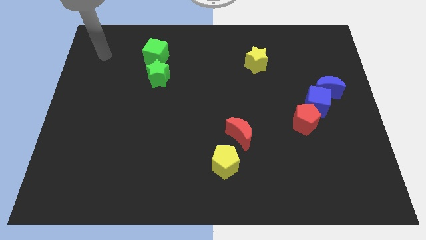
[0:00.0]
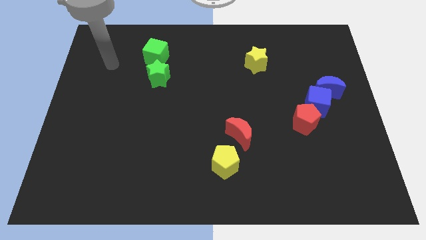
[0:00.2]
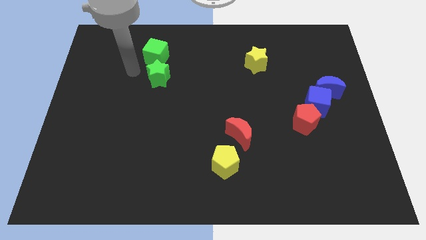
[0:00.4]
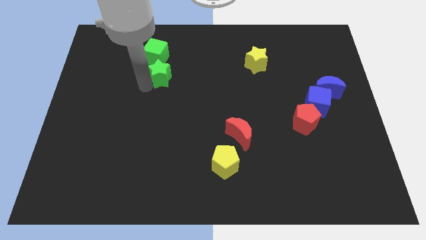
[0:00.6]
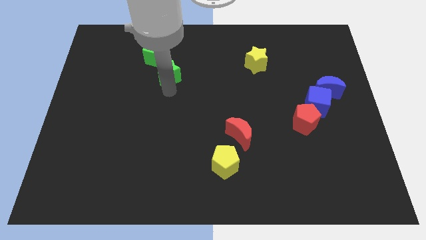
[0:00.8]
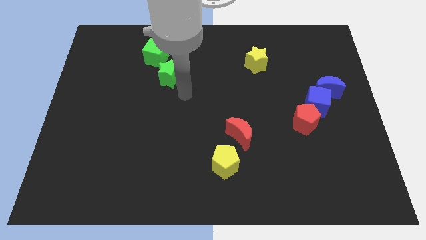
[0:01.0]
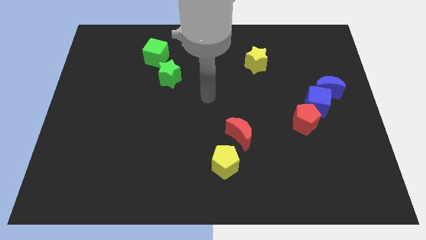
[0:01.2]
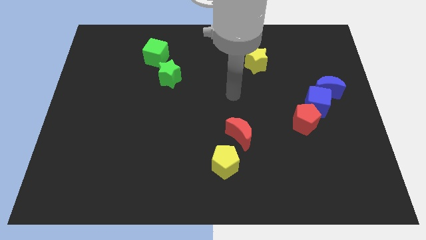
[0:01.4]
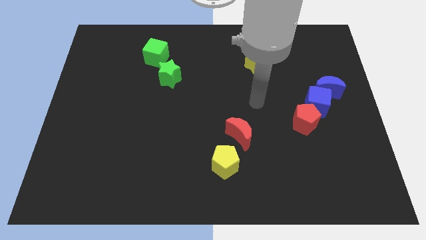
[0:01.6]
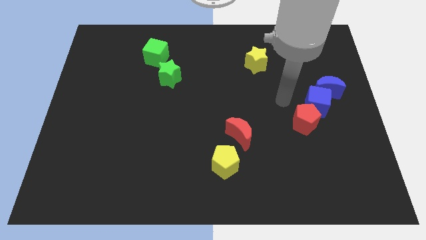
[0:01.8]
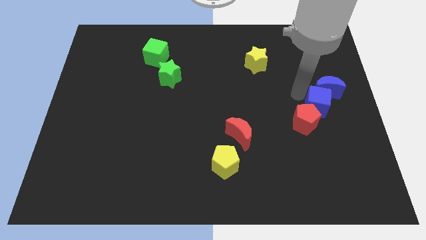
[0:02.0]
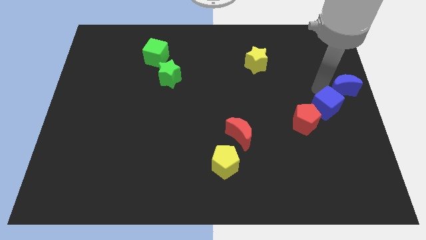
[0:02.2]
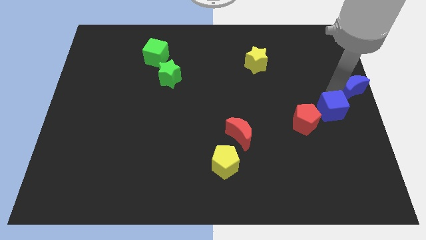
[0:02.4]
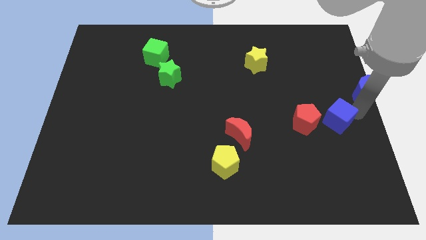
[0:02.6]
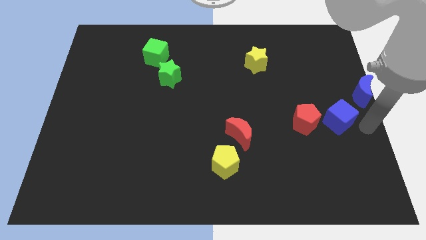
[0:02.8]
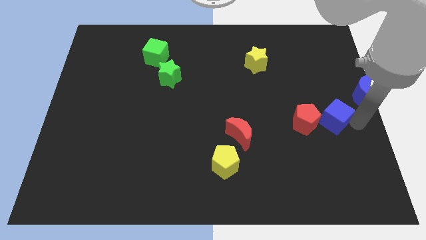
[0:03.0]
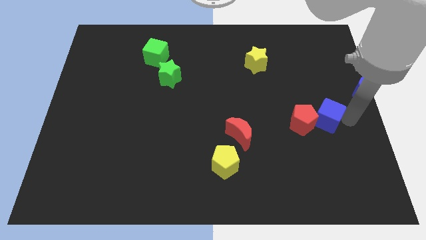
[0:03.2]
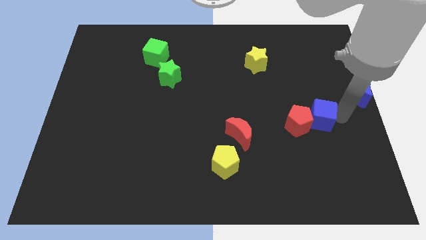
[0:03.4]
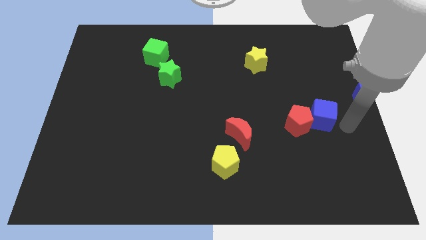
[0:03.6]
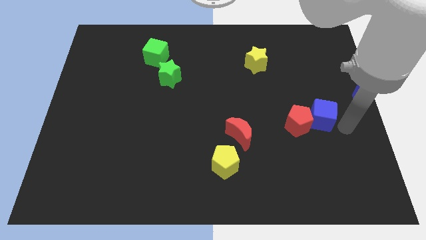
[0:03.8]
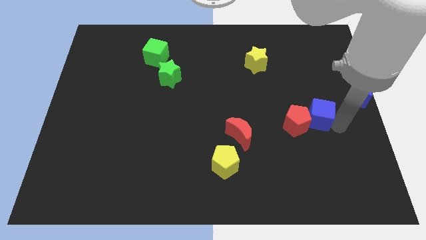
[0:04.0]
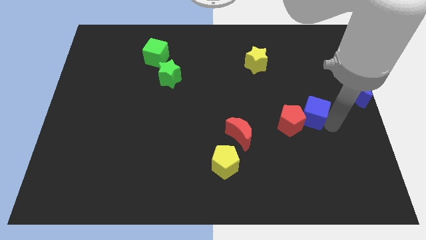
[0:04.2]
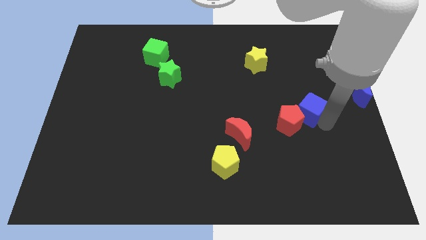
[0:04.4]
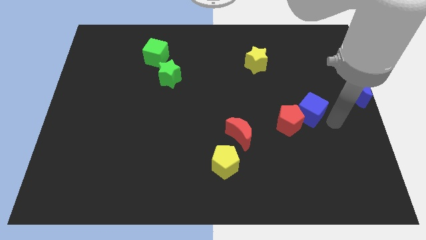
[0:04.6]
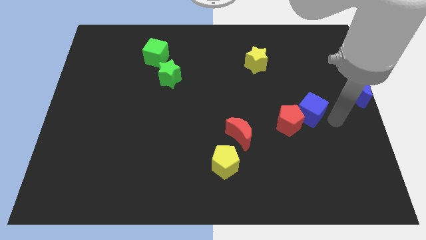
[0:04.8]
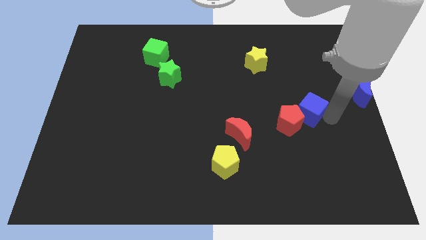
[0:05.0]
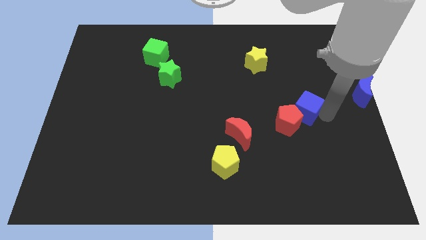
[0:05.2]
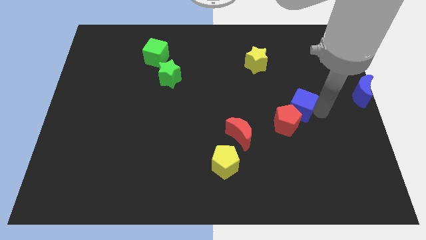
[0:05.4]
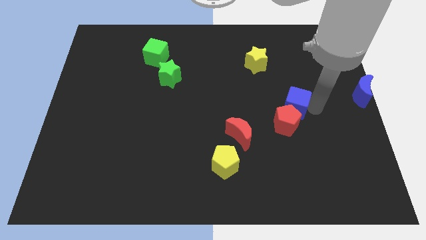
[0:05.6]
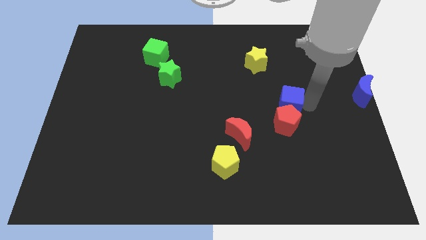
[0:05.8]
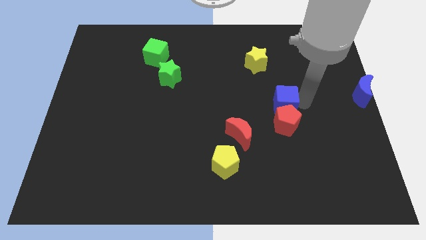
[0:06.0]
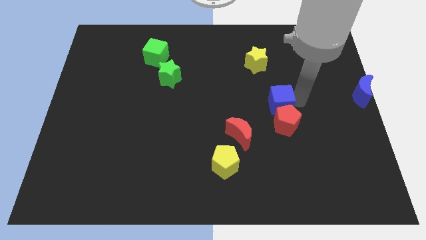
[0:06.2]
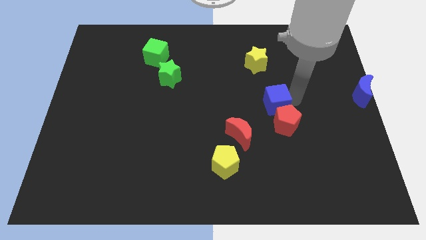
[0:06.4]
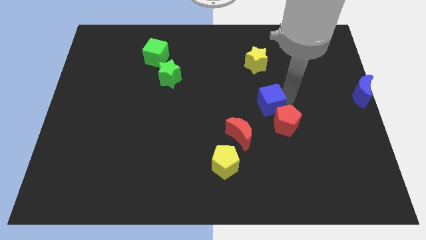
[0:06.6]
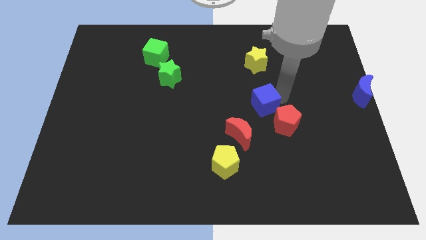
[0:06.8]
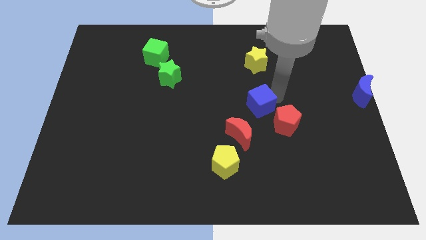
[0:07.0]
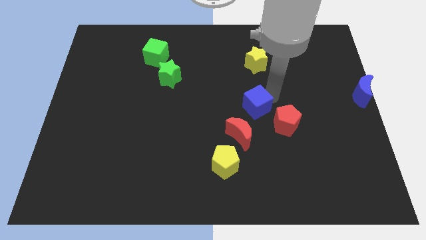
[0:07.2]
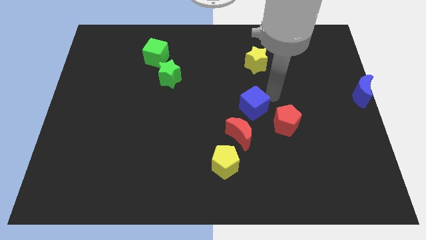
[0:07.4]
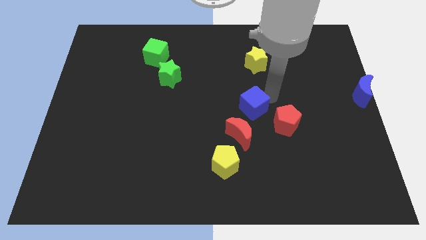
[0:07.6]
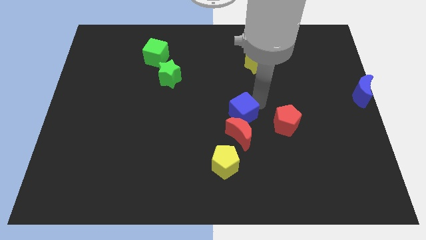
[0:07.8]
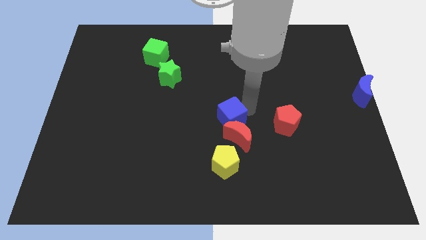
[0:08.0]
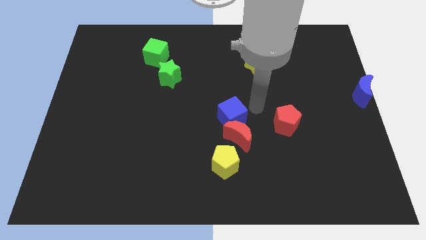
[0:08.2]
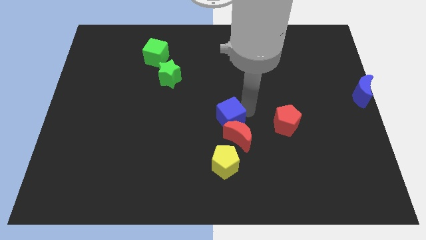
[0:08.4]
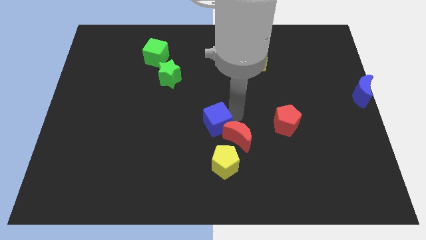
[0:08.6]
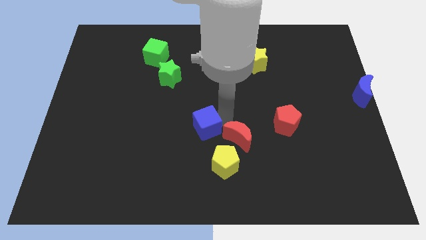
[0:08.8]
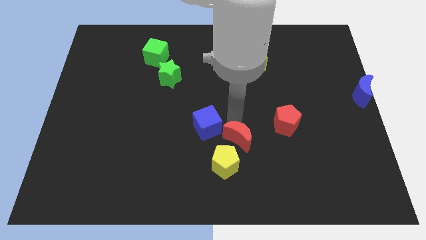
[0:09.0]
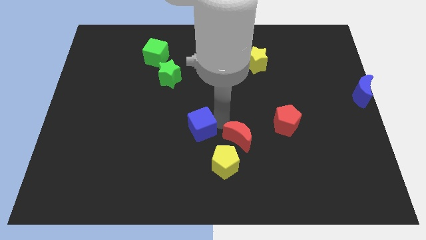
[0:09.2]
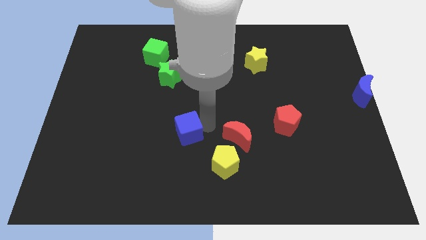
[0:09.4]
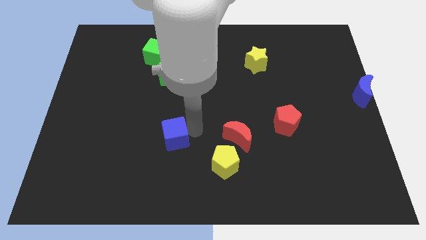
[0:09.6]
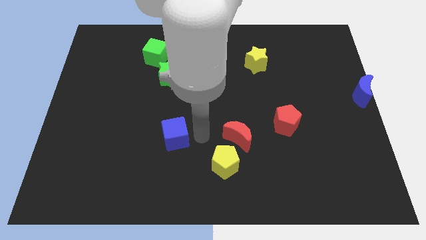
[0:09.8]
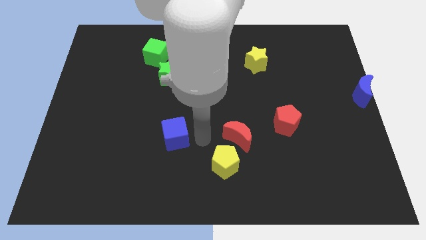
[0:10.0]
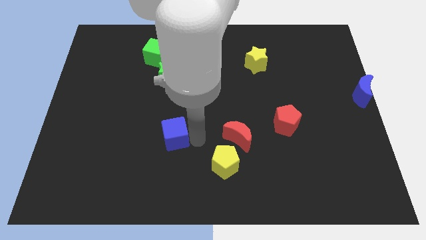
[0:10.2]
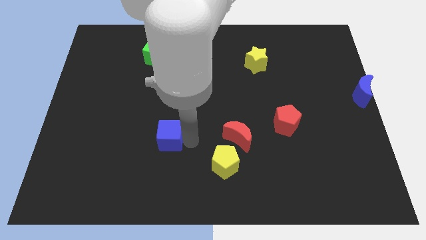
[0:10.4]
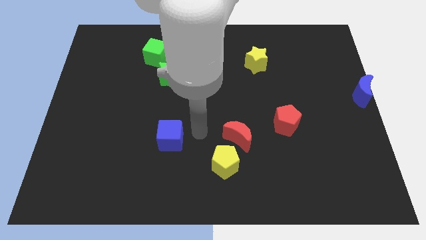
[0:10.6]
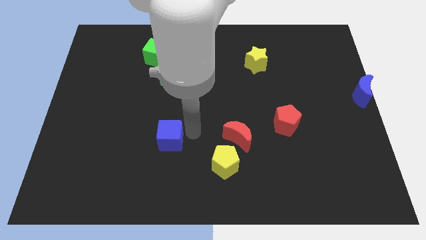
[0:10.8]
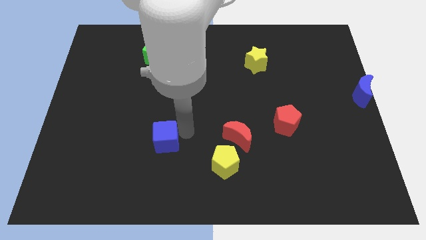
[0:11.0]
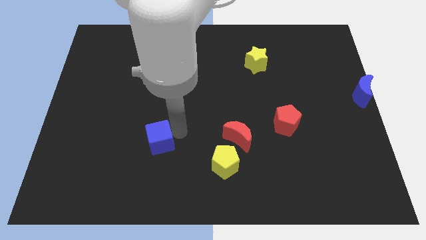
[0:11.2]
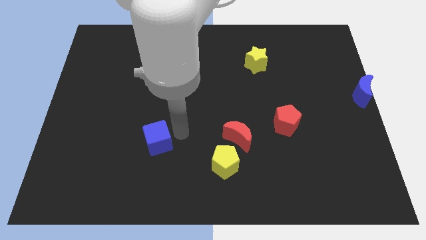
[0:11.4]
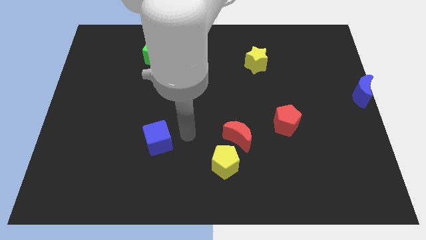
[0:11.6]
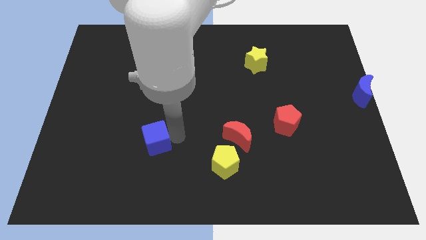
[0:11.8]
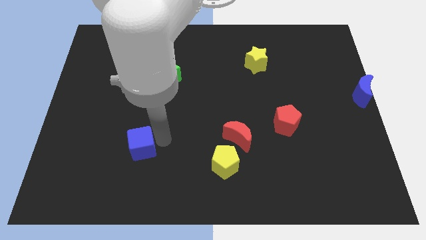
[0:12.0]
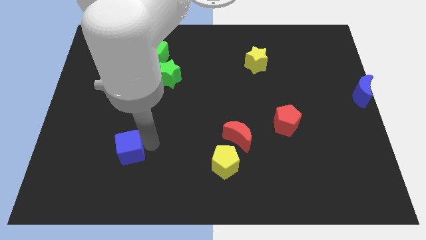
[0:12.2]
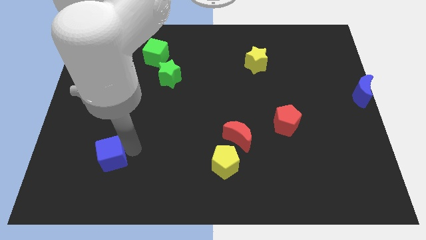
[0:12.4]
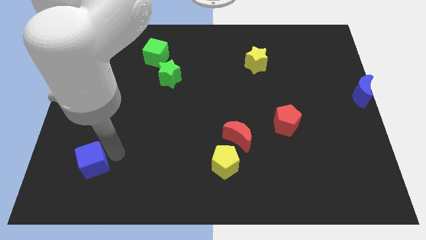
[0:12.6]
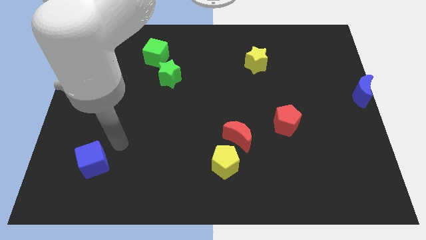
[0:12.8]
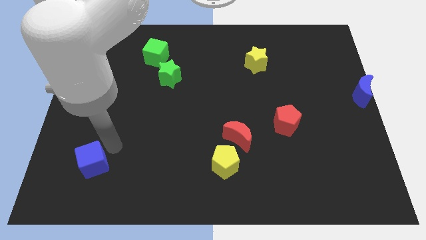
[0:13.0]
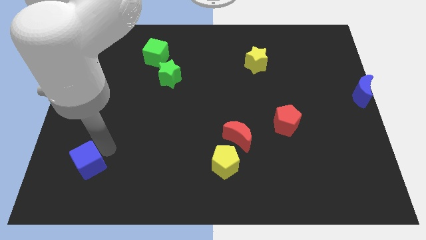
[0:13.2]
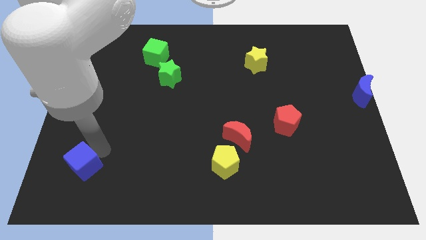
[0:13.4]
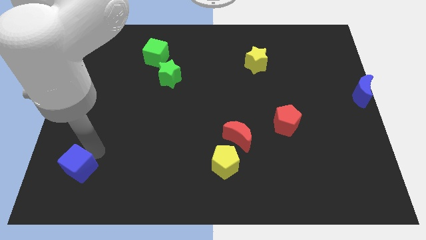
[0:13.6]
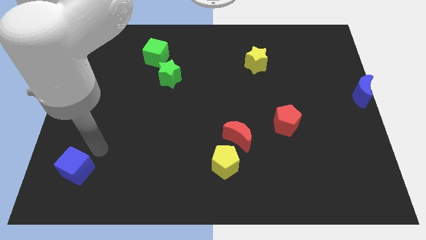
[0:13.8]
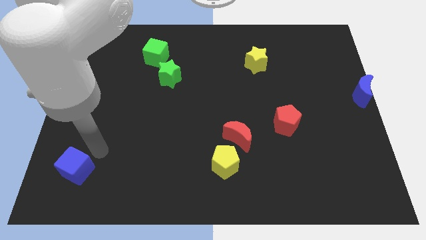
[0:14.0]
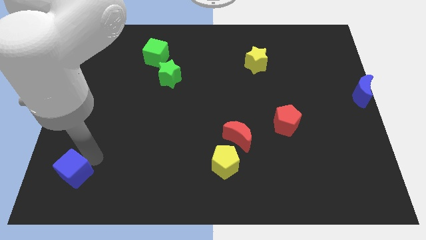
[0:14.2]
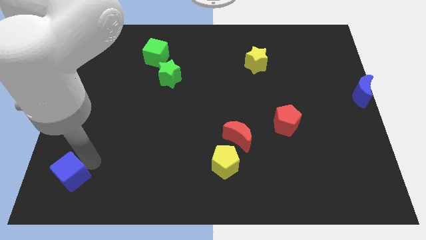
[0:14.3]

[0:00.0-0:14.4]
move the blue cube to the bottom left corner

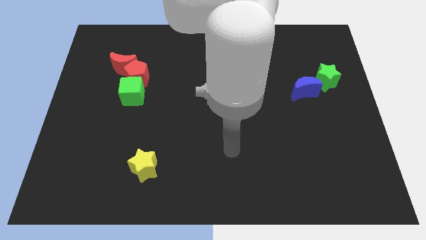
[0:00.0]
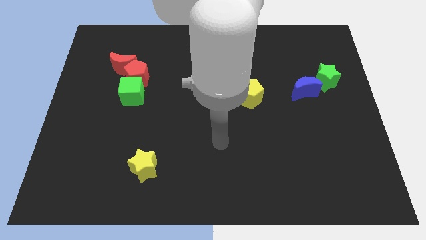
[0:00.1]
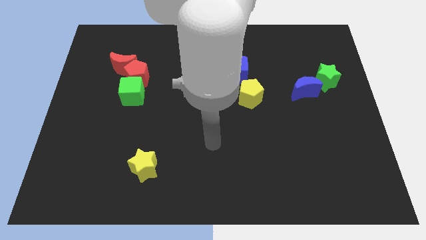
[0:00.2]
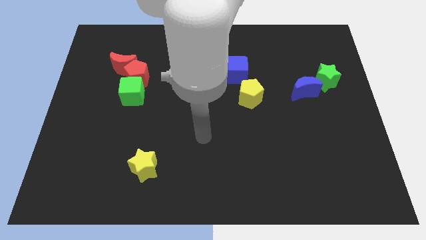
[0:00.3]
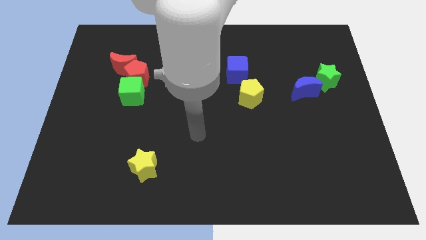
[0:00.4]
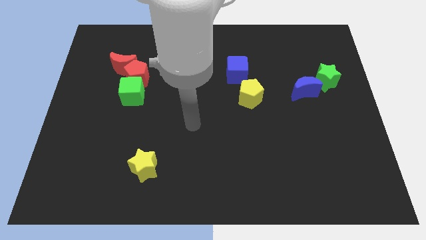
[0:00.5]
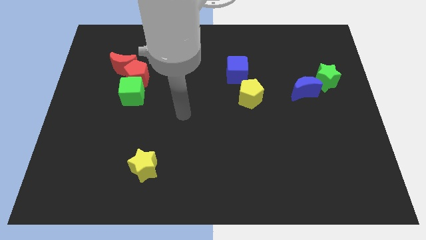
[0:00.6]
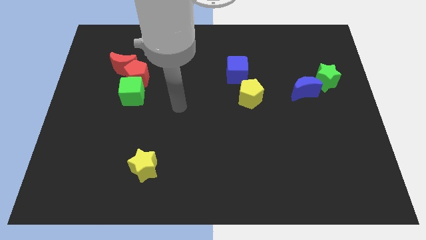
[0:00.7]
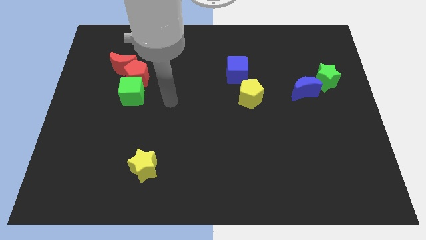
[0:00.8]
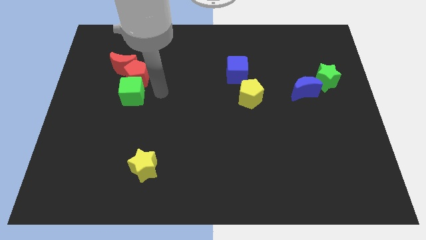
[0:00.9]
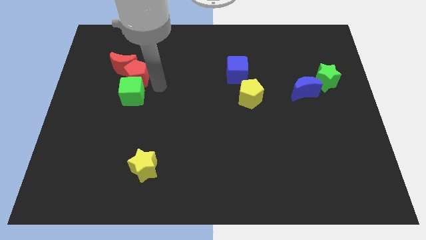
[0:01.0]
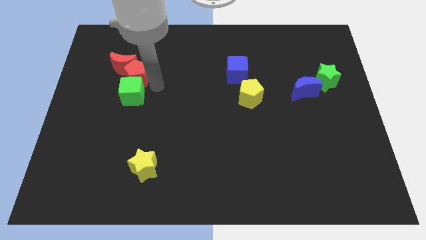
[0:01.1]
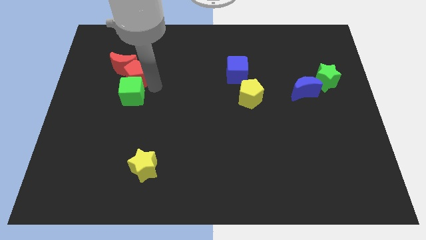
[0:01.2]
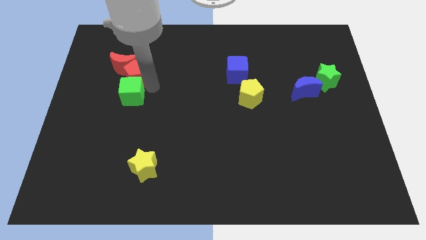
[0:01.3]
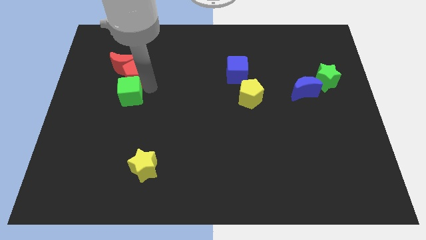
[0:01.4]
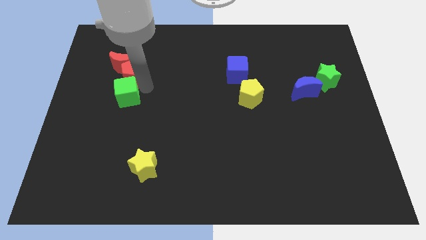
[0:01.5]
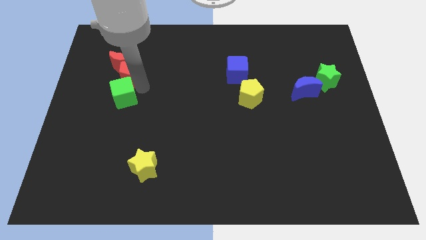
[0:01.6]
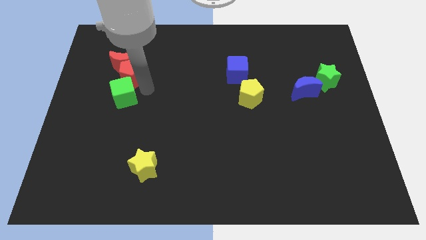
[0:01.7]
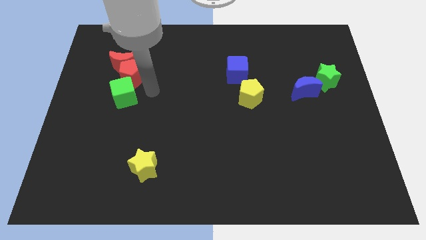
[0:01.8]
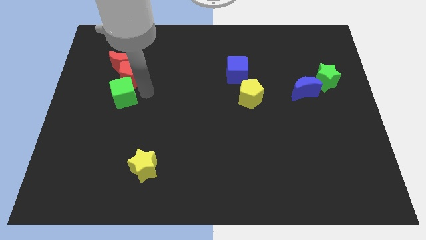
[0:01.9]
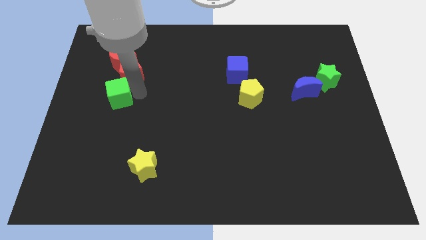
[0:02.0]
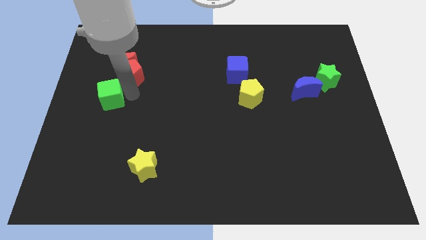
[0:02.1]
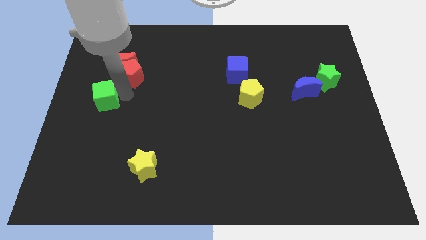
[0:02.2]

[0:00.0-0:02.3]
slide the green cube to the left side of the board
